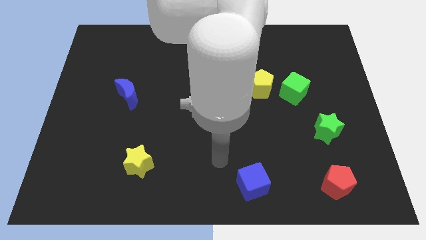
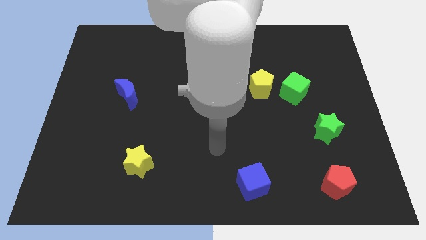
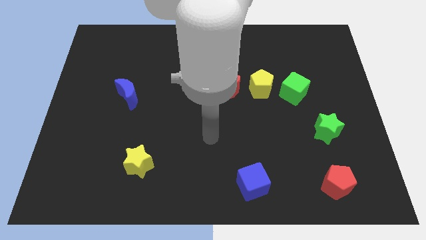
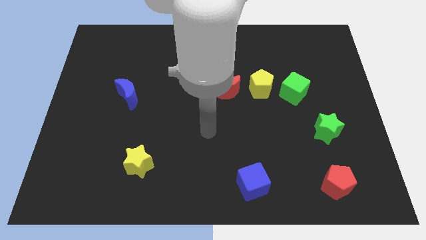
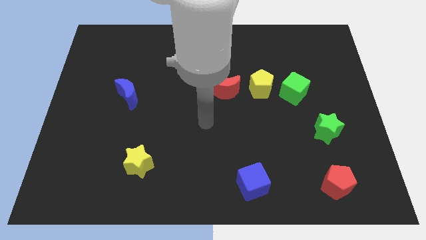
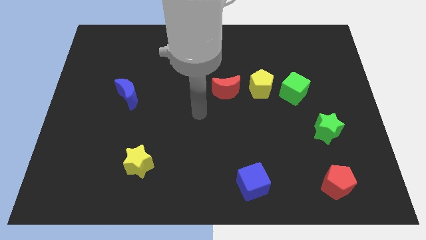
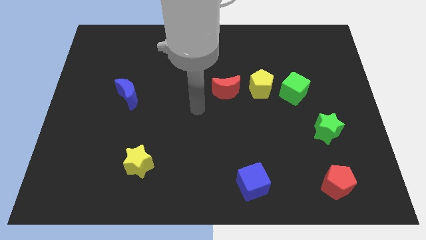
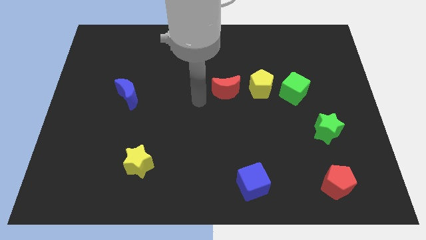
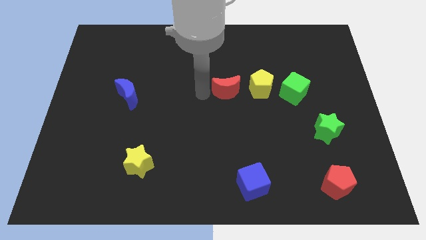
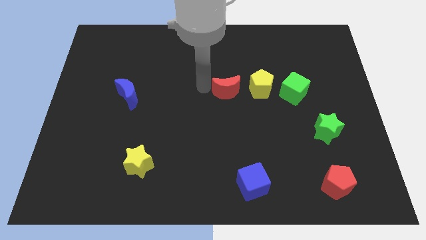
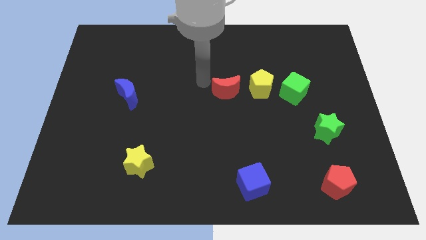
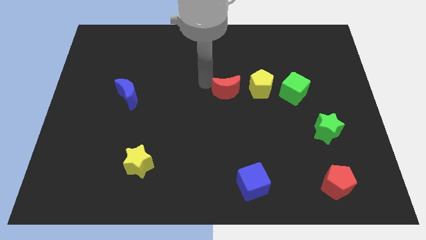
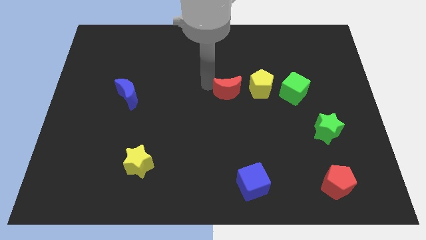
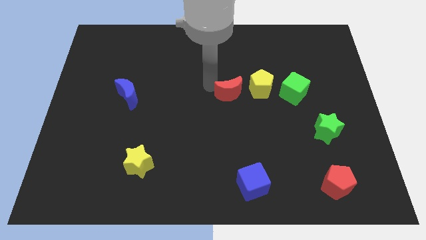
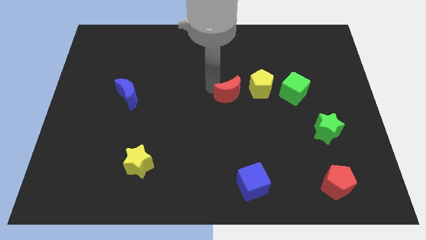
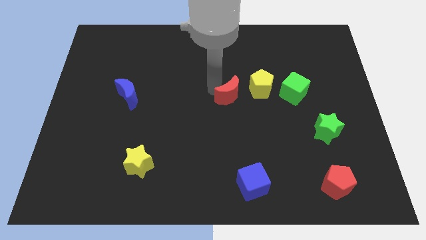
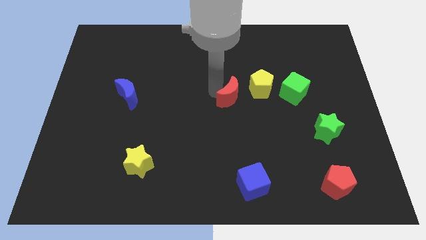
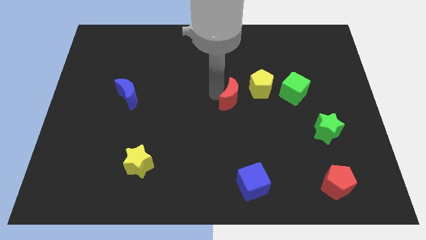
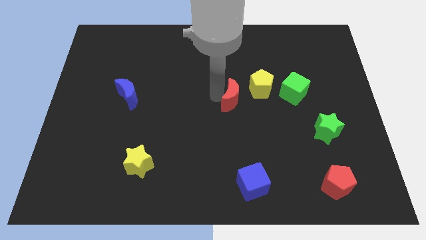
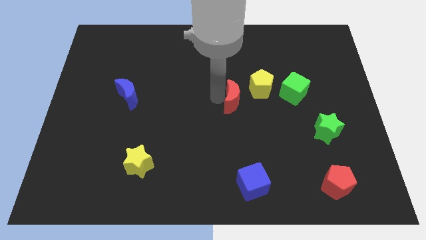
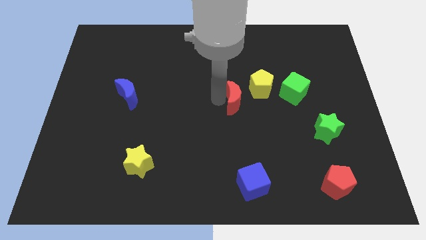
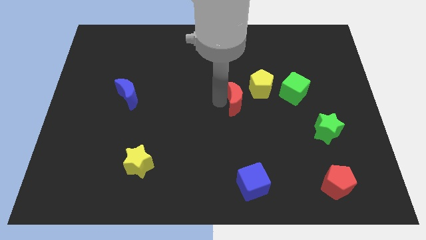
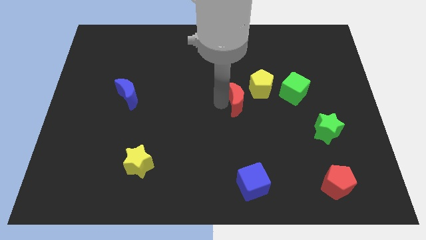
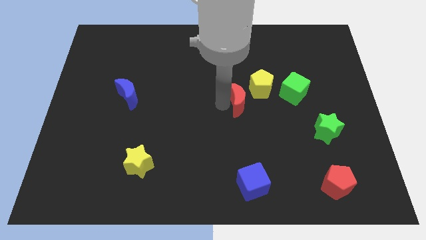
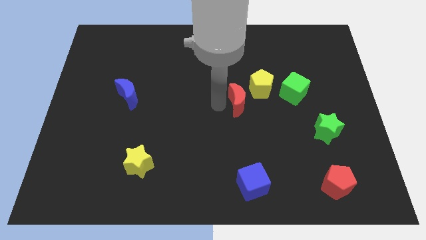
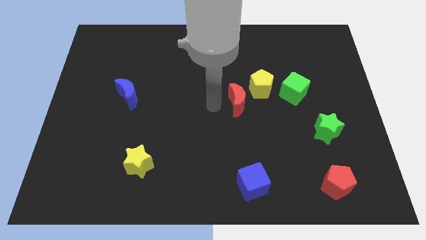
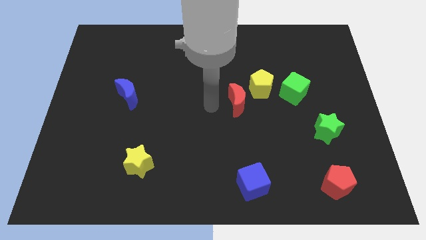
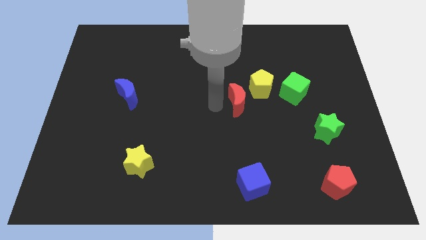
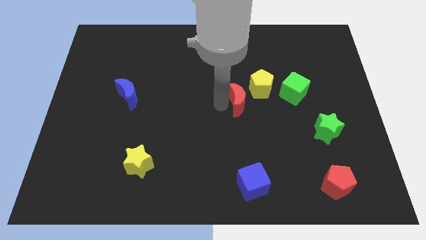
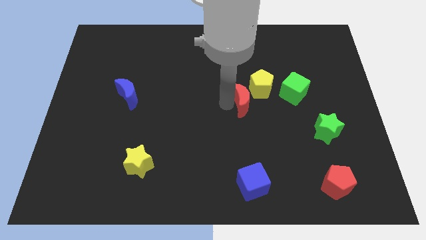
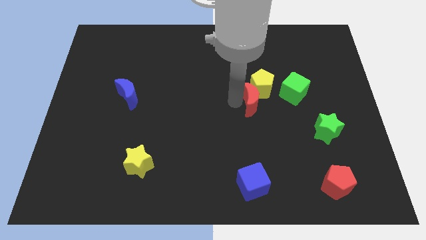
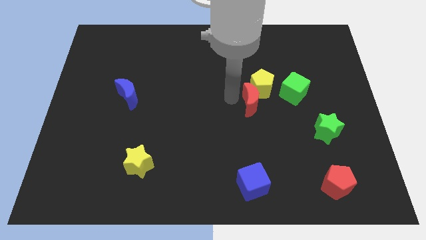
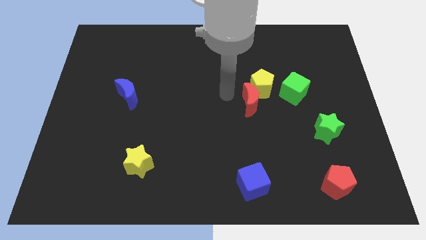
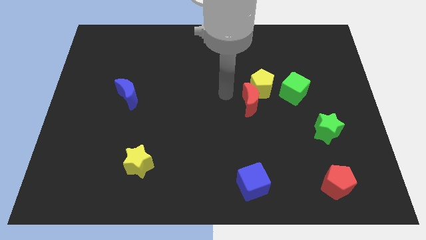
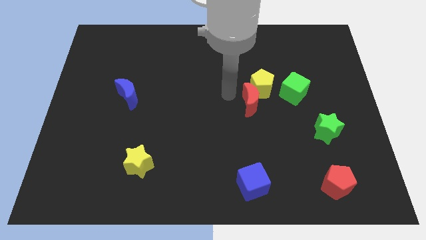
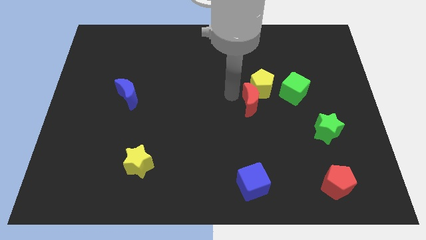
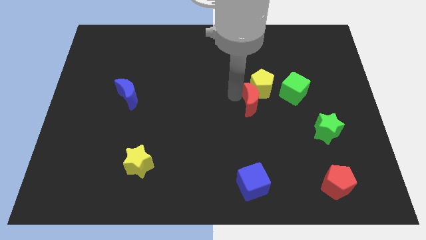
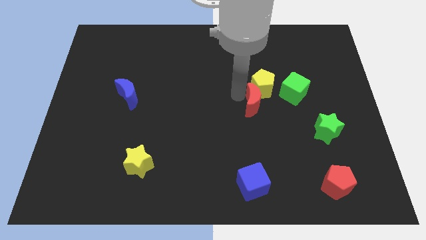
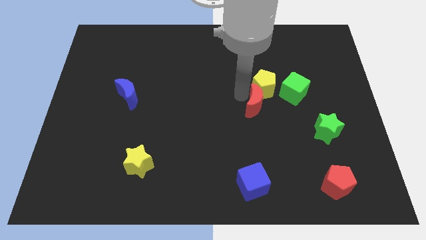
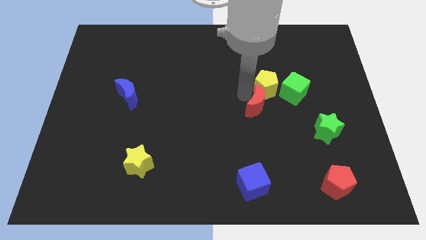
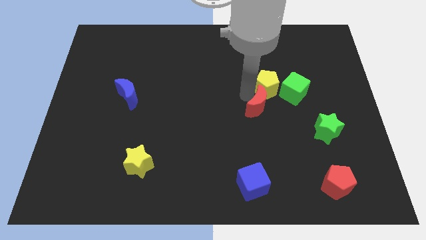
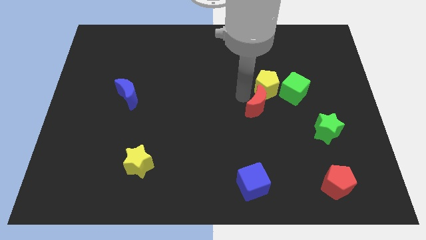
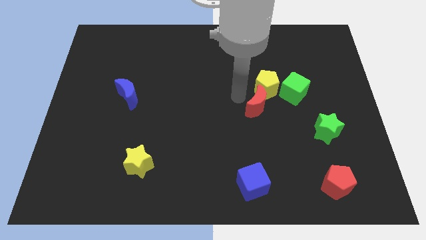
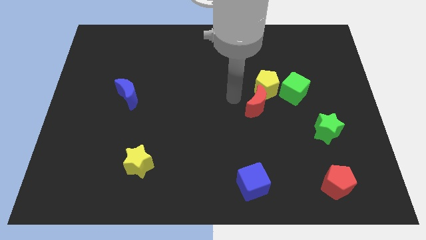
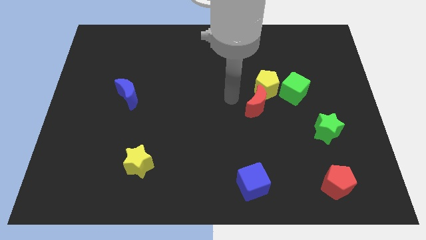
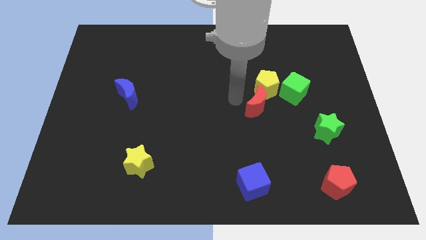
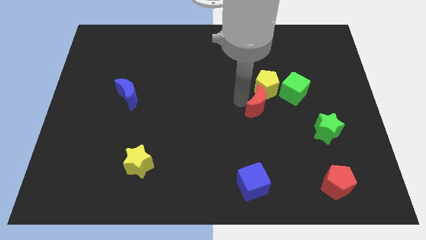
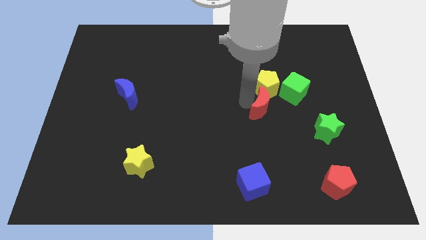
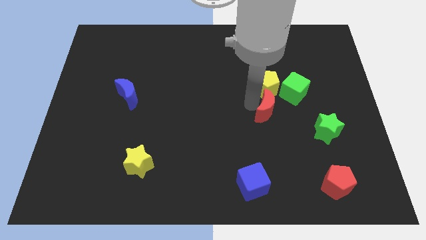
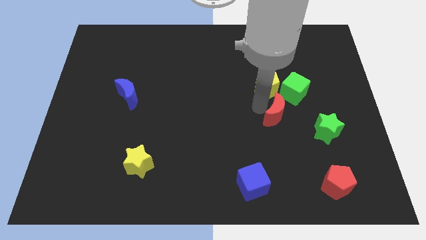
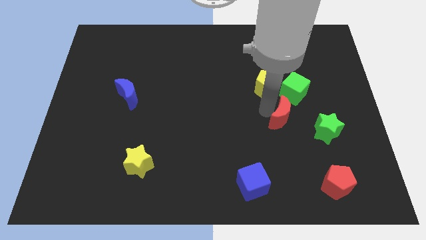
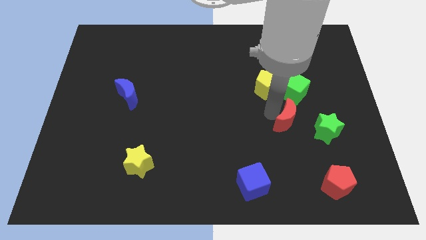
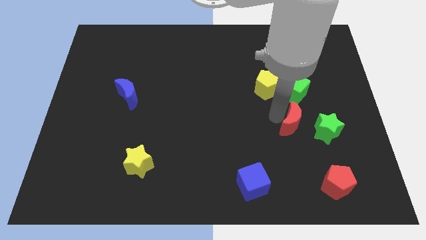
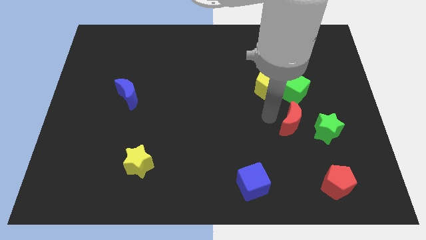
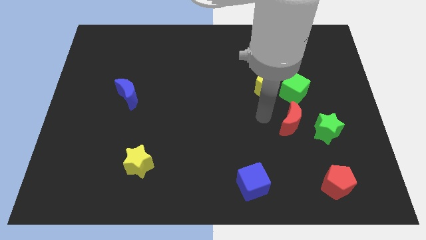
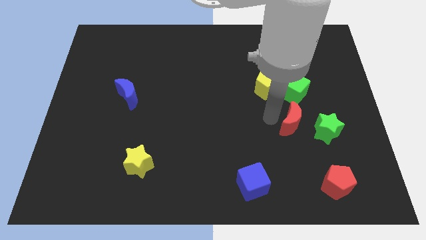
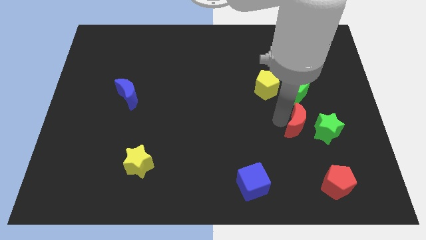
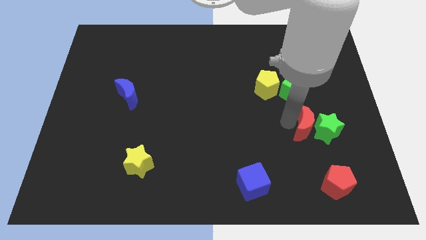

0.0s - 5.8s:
push the red moon towards the green star

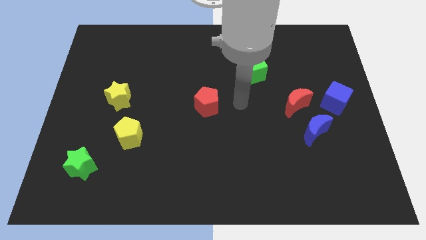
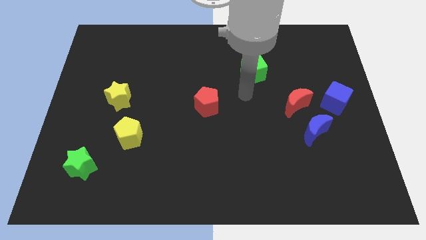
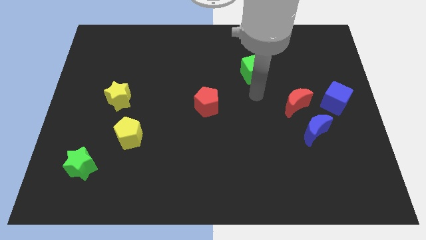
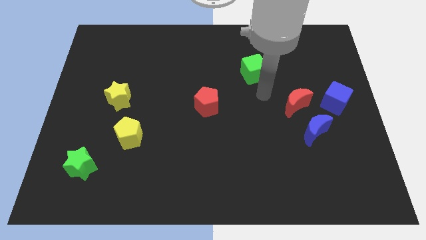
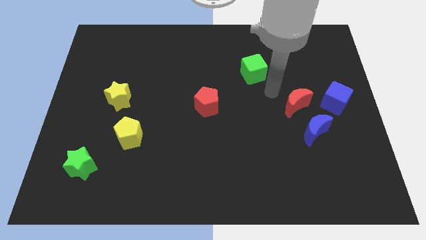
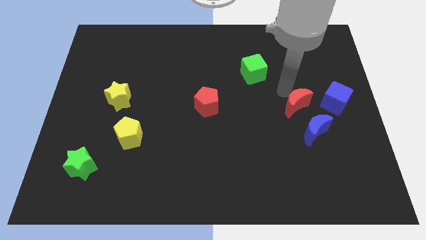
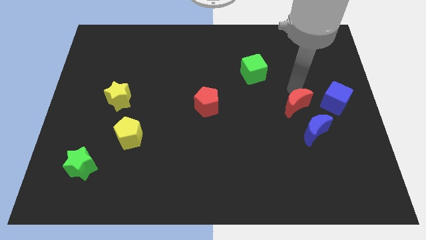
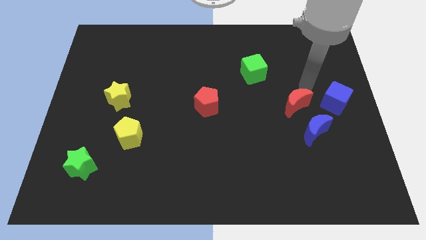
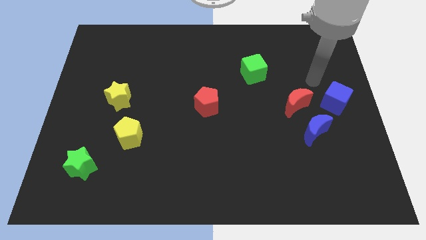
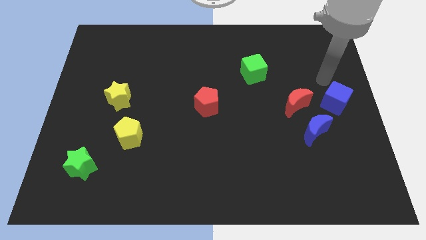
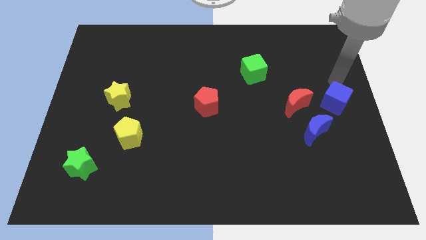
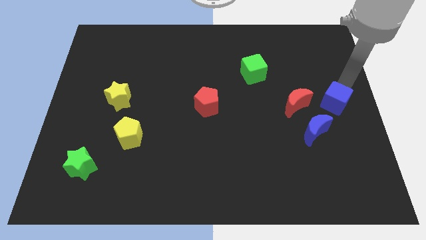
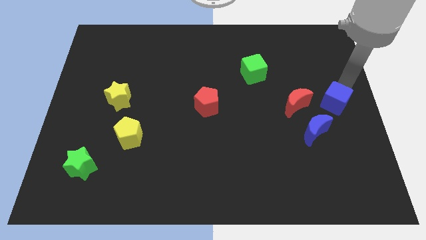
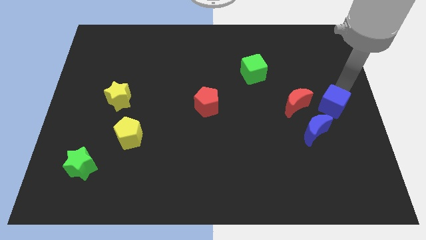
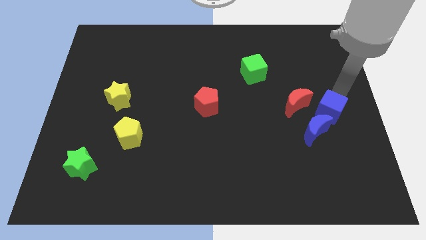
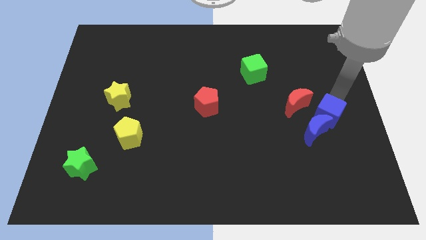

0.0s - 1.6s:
slide the blue cube close to the blue moon
